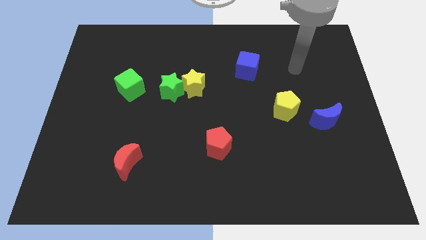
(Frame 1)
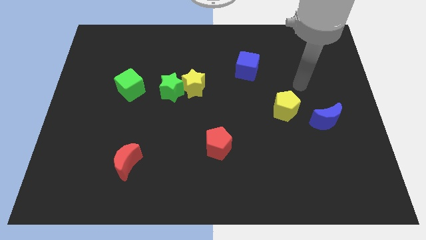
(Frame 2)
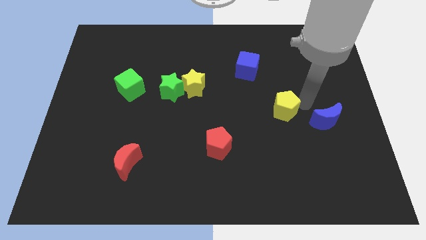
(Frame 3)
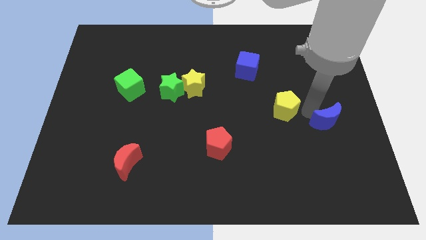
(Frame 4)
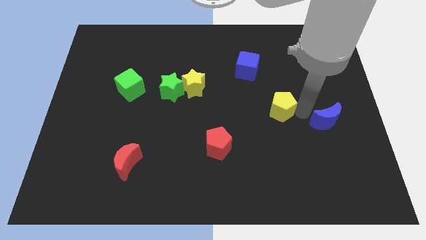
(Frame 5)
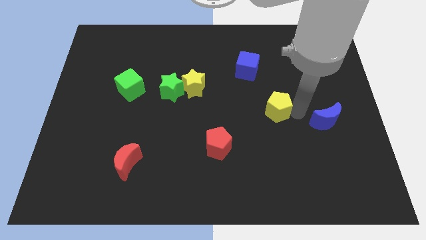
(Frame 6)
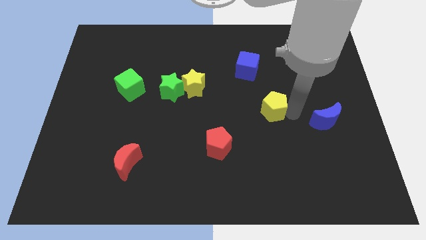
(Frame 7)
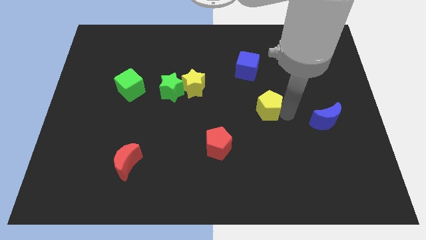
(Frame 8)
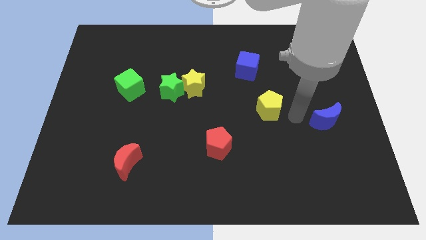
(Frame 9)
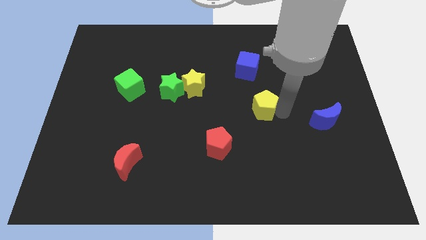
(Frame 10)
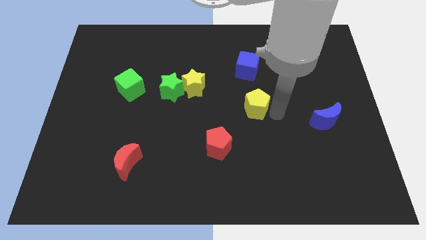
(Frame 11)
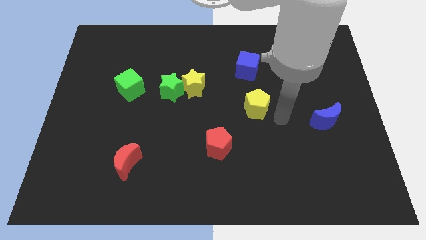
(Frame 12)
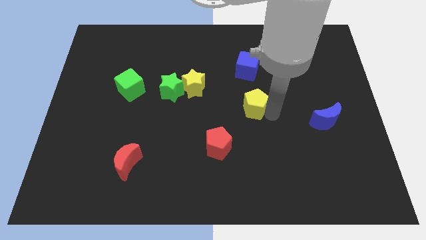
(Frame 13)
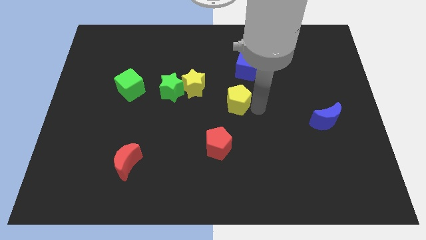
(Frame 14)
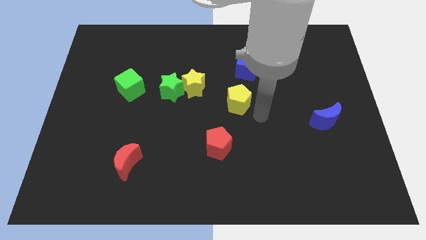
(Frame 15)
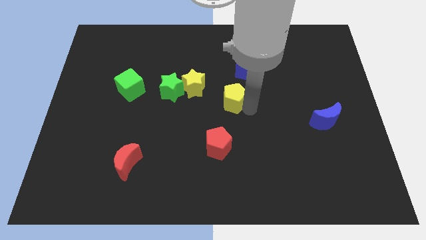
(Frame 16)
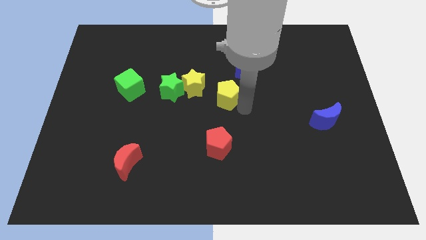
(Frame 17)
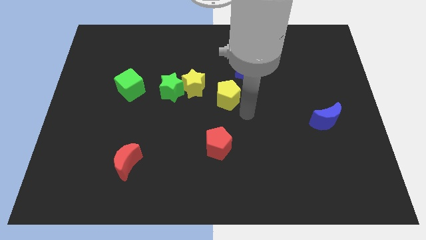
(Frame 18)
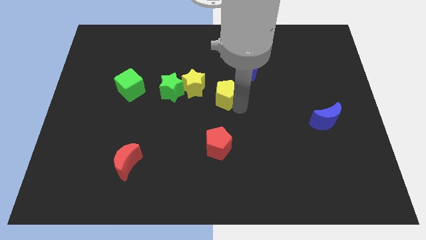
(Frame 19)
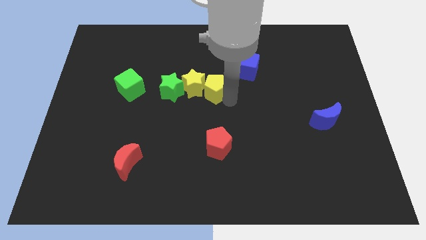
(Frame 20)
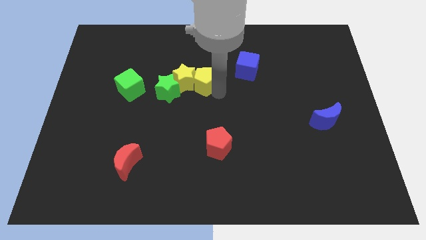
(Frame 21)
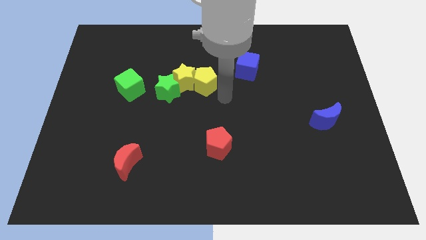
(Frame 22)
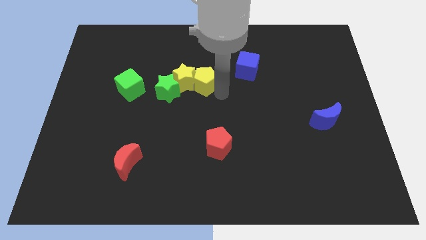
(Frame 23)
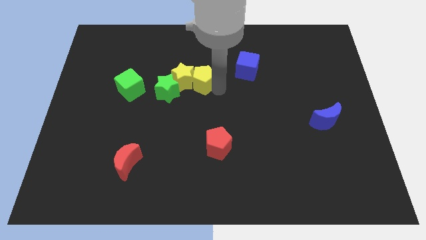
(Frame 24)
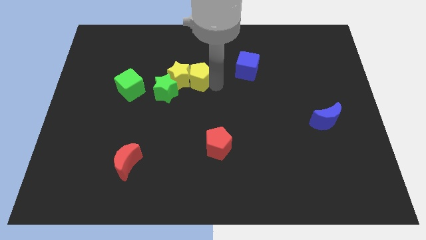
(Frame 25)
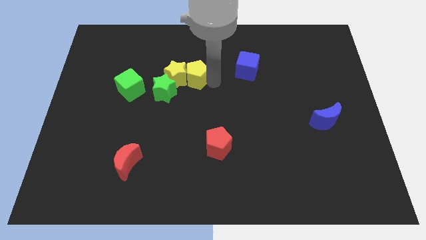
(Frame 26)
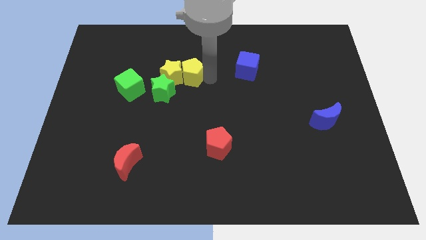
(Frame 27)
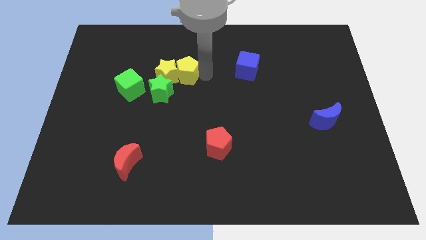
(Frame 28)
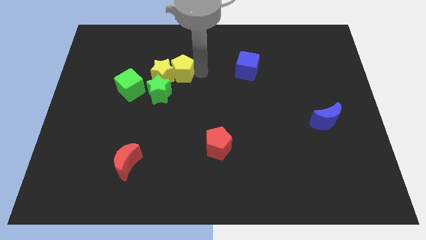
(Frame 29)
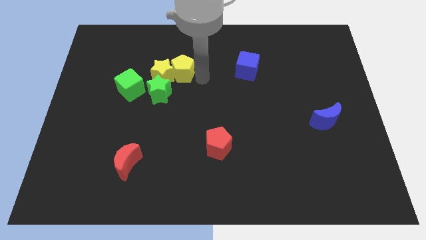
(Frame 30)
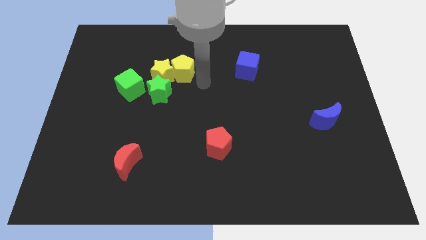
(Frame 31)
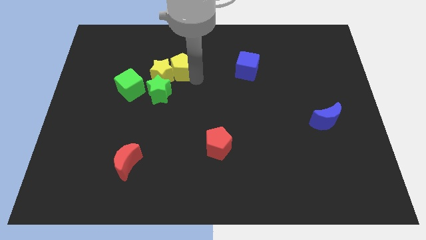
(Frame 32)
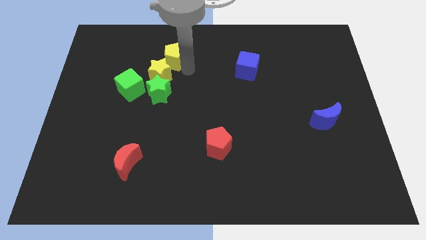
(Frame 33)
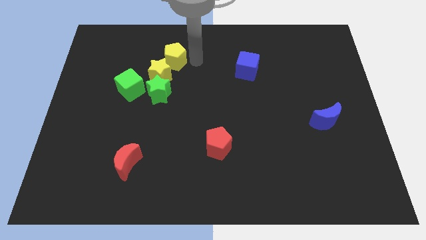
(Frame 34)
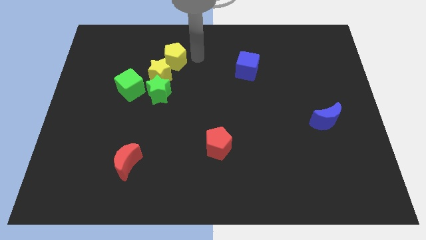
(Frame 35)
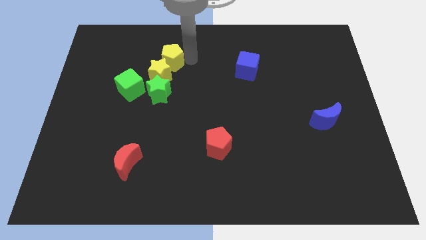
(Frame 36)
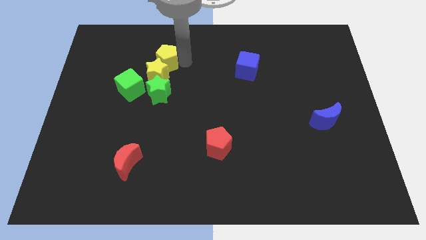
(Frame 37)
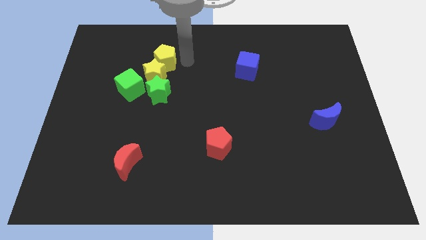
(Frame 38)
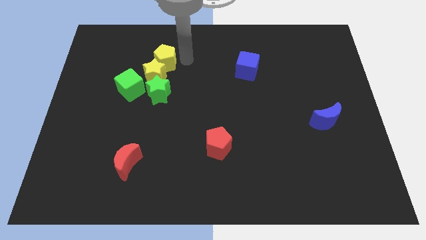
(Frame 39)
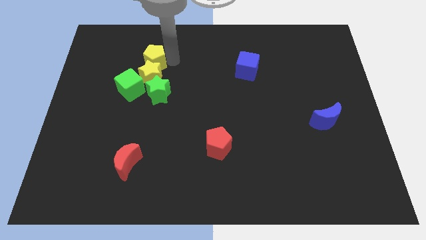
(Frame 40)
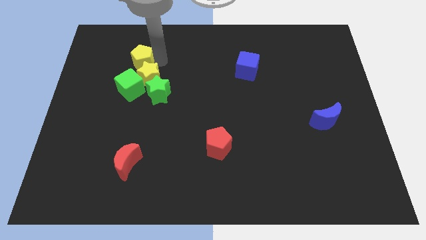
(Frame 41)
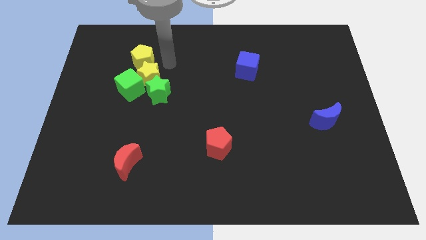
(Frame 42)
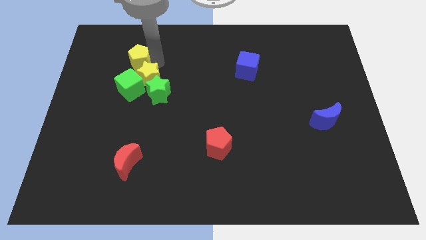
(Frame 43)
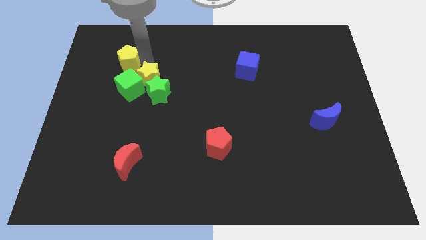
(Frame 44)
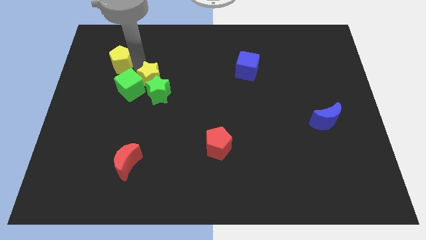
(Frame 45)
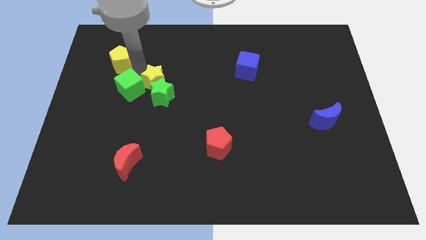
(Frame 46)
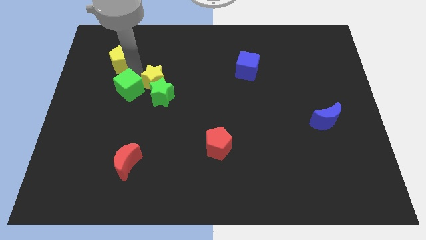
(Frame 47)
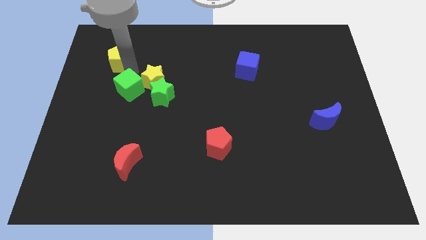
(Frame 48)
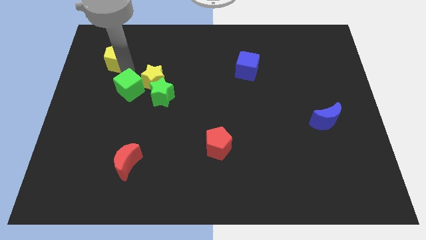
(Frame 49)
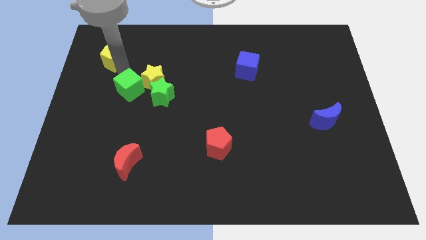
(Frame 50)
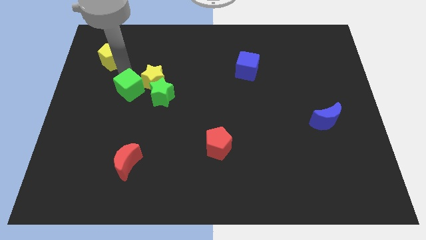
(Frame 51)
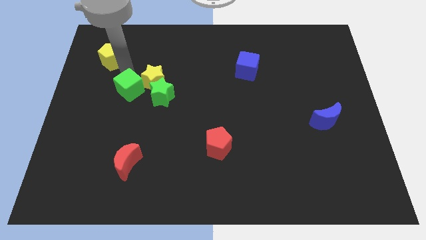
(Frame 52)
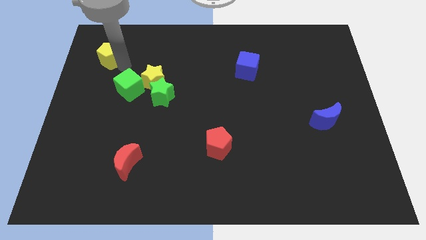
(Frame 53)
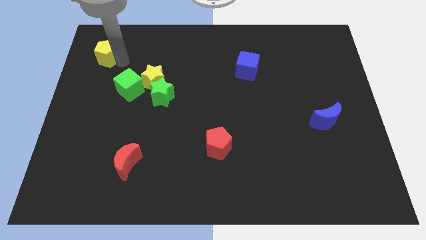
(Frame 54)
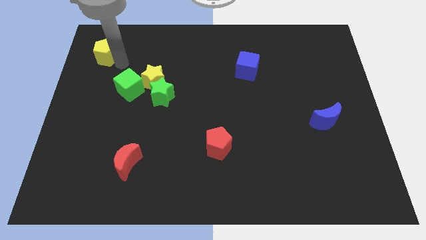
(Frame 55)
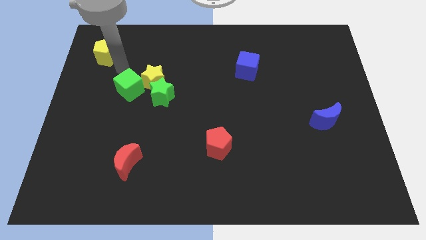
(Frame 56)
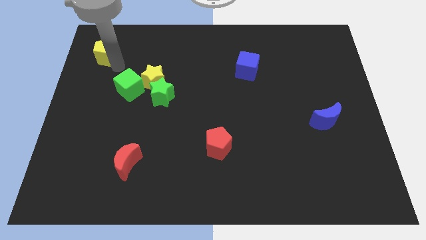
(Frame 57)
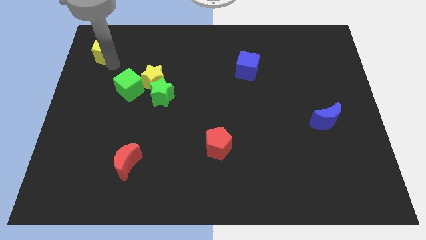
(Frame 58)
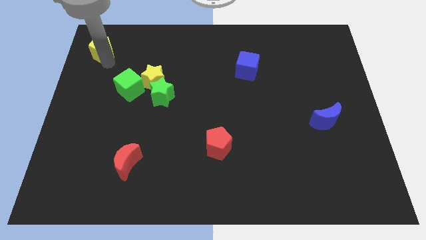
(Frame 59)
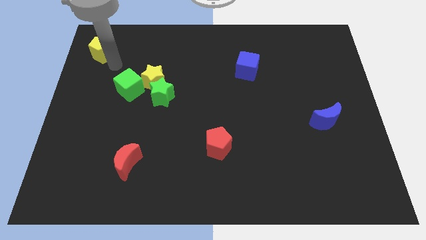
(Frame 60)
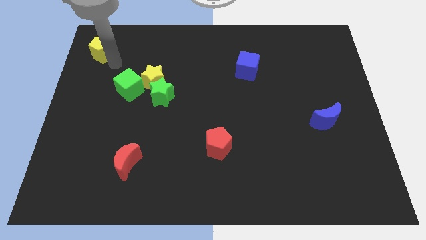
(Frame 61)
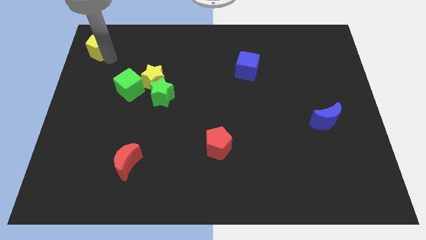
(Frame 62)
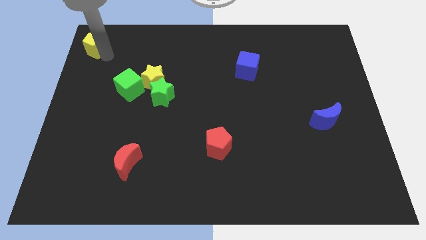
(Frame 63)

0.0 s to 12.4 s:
push the yellow pentagon to the top left of the board
